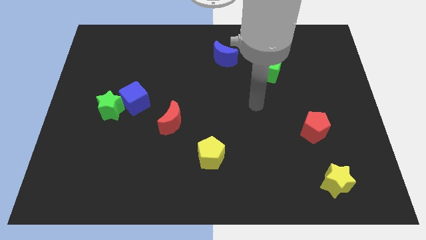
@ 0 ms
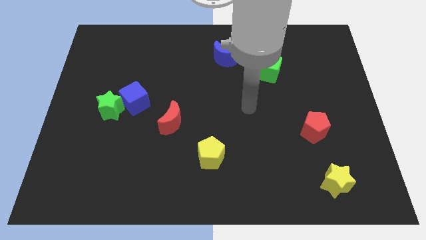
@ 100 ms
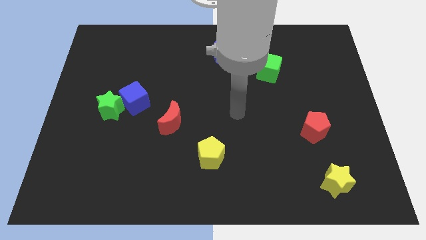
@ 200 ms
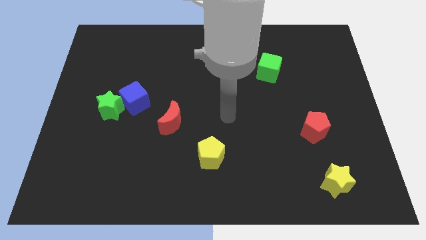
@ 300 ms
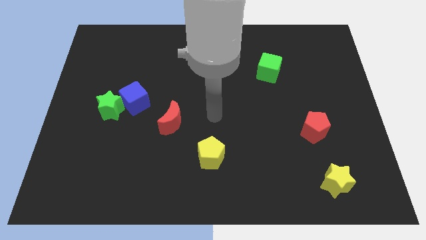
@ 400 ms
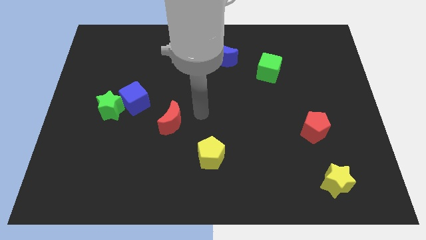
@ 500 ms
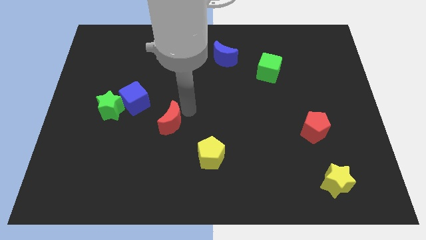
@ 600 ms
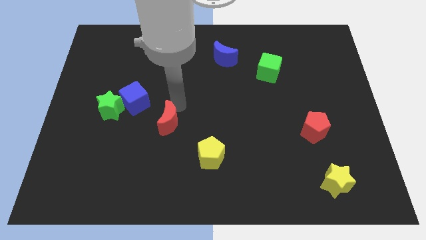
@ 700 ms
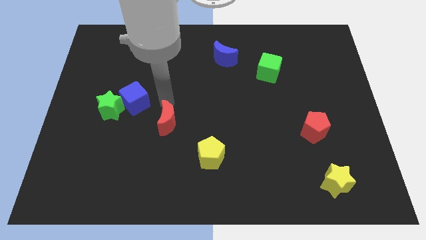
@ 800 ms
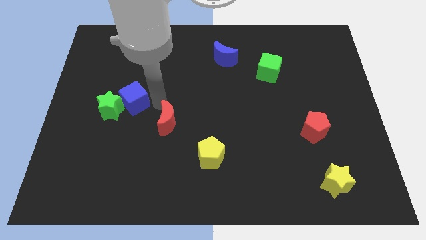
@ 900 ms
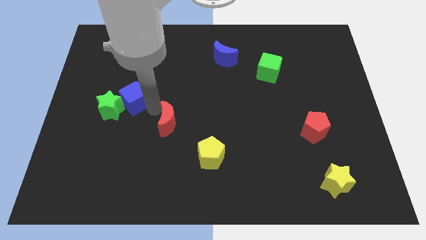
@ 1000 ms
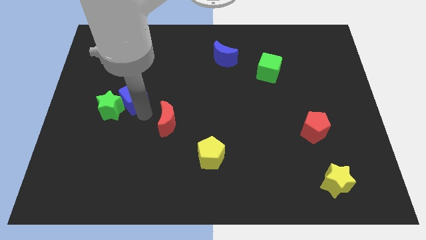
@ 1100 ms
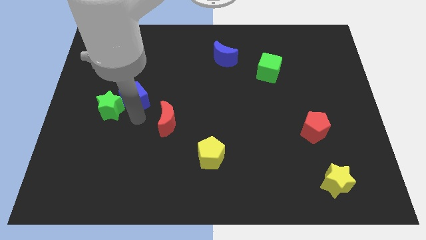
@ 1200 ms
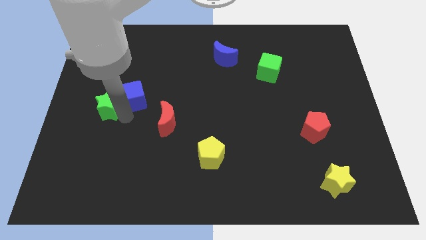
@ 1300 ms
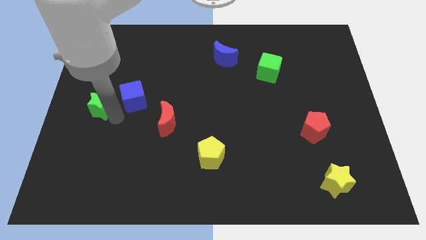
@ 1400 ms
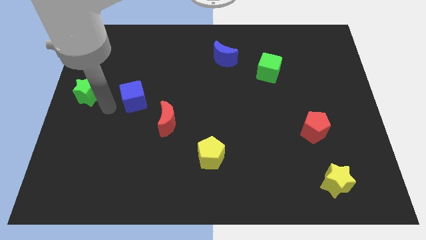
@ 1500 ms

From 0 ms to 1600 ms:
pull the blue cube apart from the green star

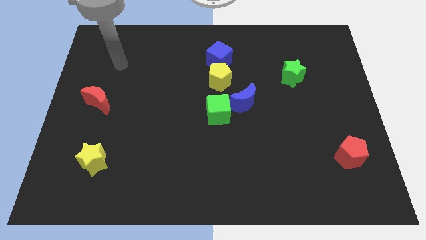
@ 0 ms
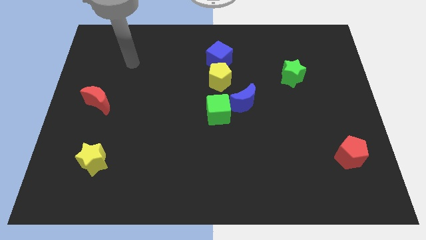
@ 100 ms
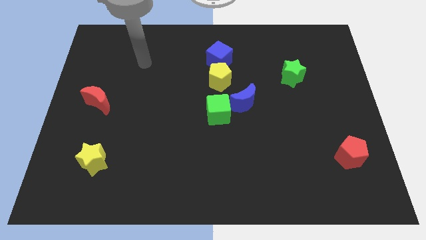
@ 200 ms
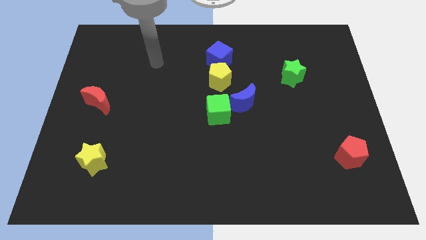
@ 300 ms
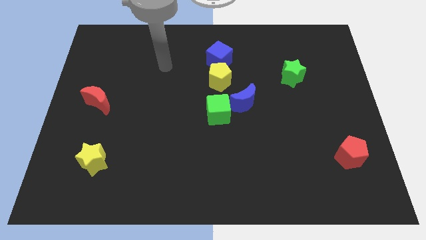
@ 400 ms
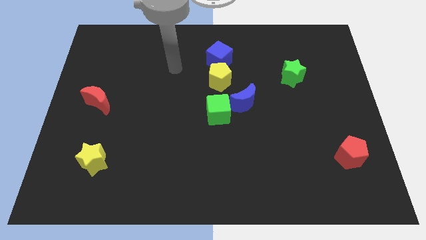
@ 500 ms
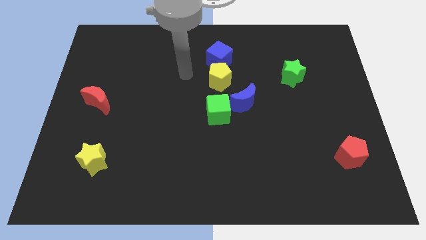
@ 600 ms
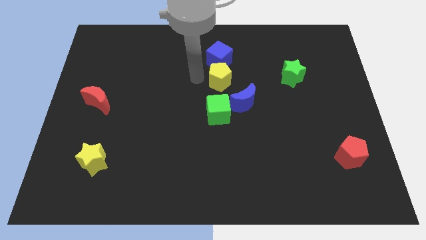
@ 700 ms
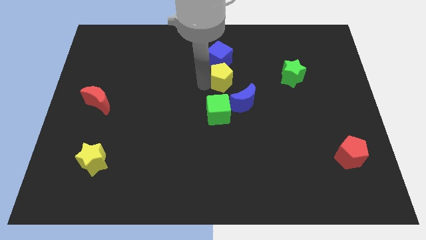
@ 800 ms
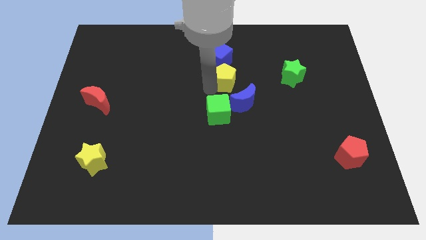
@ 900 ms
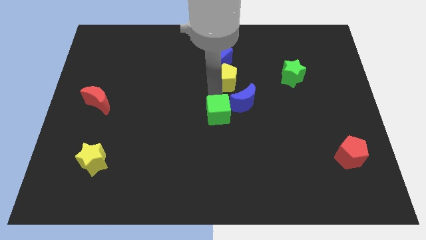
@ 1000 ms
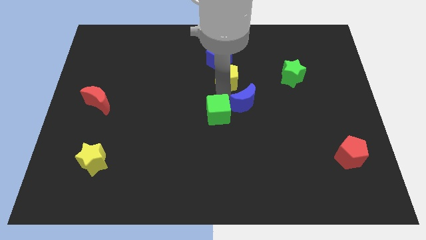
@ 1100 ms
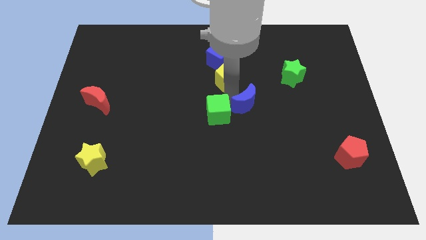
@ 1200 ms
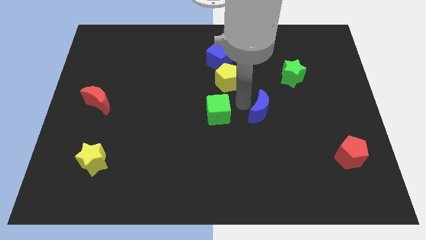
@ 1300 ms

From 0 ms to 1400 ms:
separate the green cube from the blue moon

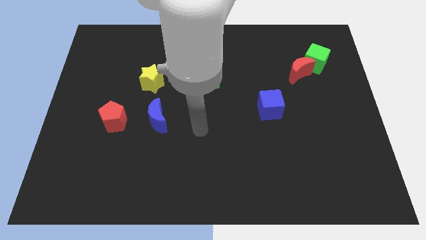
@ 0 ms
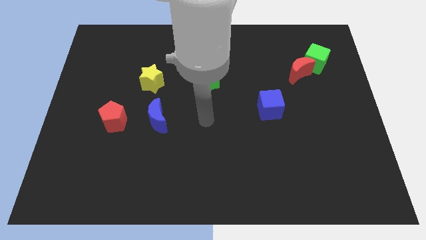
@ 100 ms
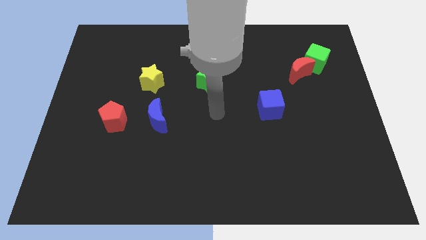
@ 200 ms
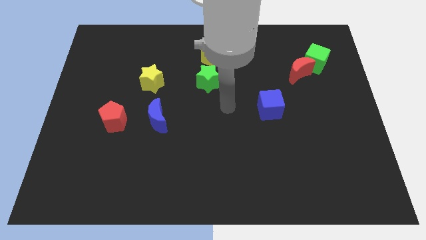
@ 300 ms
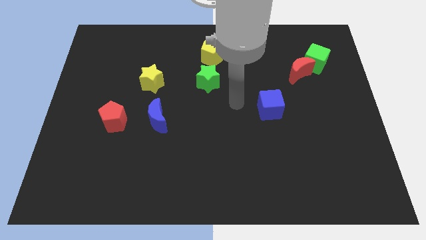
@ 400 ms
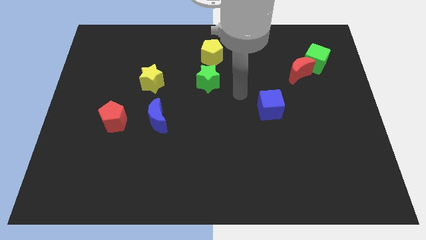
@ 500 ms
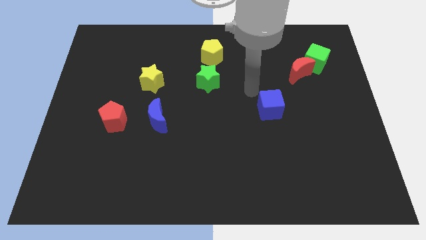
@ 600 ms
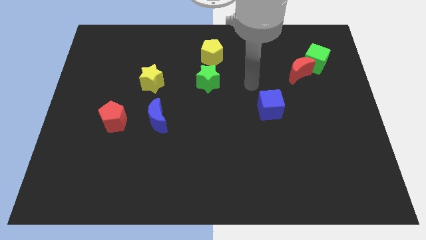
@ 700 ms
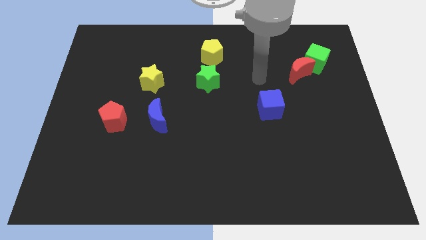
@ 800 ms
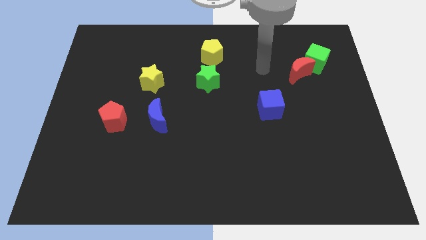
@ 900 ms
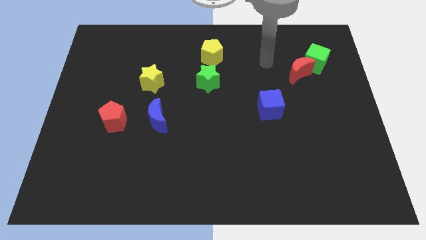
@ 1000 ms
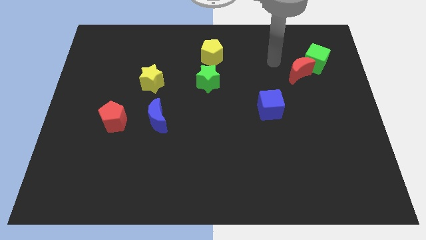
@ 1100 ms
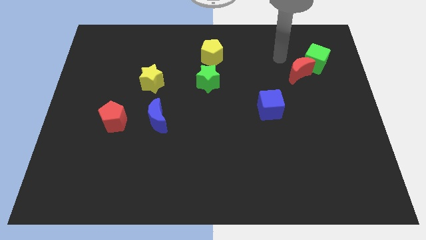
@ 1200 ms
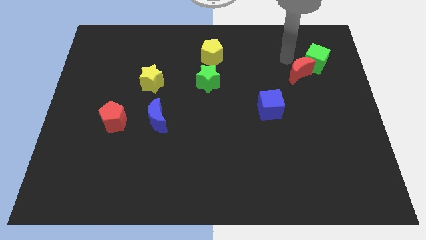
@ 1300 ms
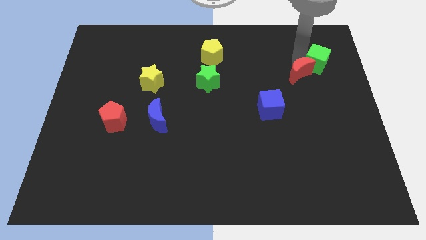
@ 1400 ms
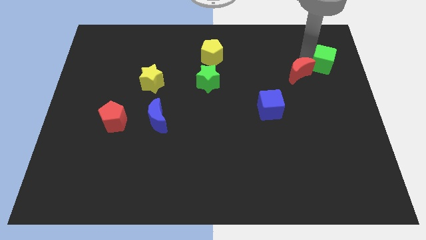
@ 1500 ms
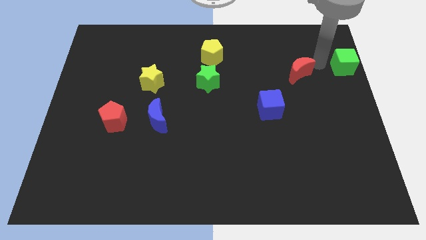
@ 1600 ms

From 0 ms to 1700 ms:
pull the red moon apart from the green cube

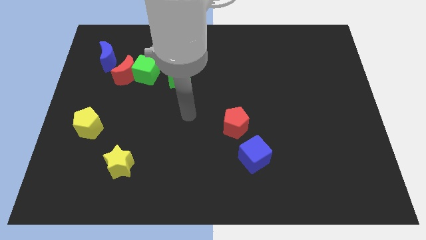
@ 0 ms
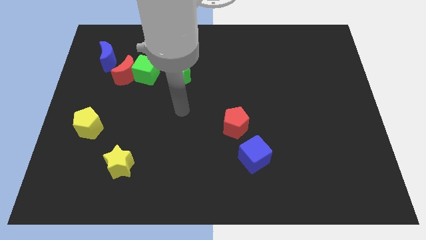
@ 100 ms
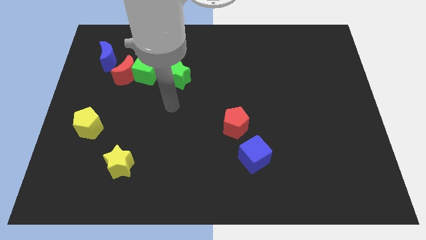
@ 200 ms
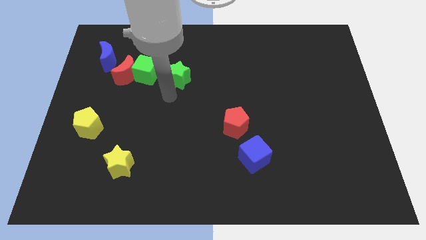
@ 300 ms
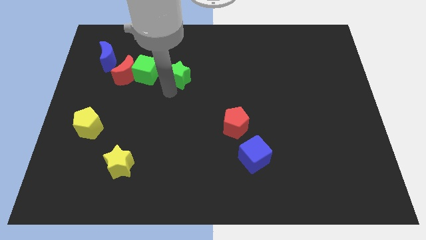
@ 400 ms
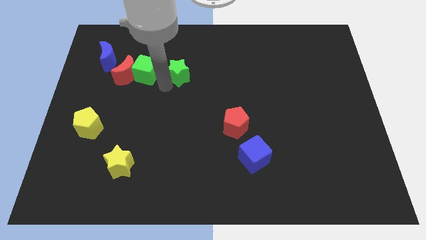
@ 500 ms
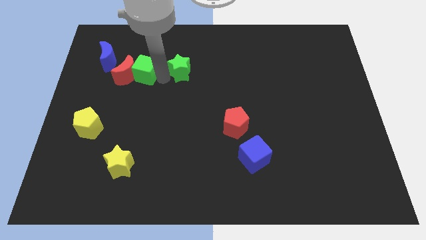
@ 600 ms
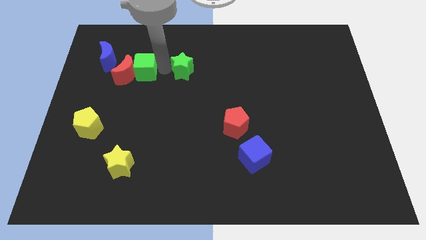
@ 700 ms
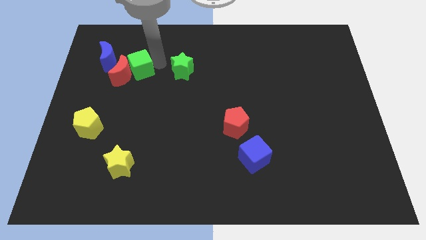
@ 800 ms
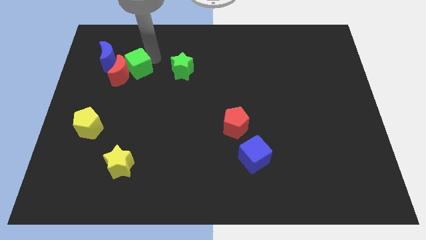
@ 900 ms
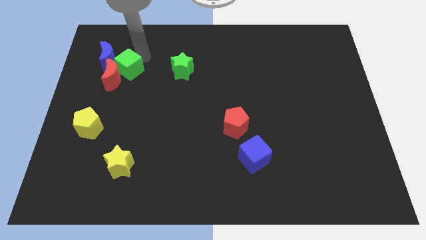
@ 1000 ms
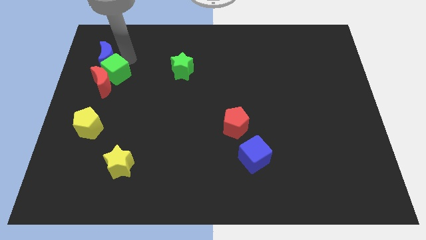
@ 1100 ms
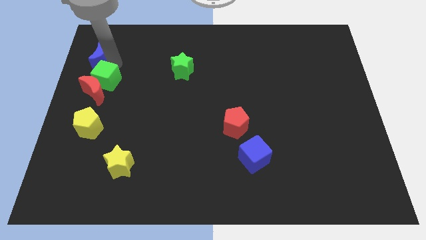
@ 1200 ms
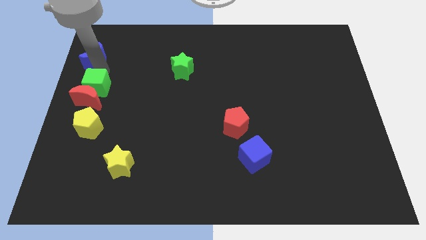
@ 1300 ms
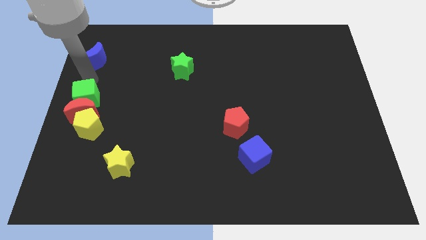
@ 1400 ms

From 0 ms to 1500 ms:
separate the red moon from the green cube and blue moon

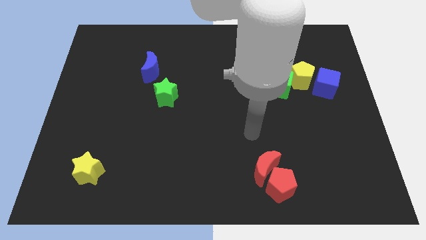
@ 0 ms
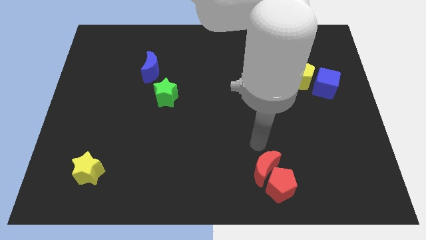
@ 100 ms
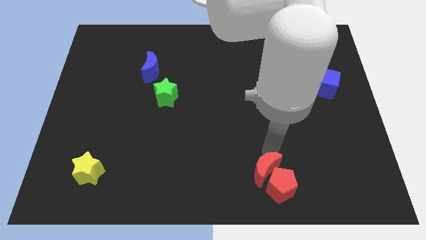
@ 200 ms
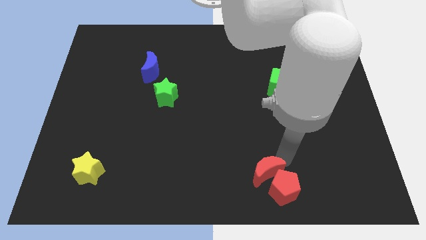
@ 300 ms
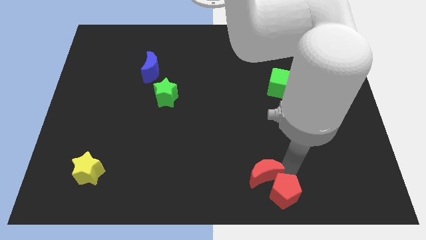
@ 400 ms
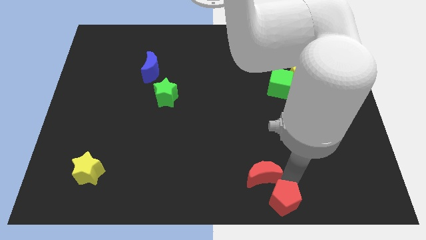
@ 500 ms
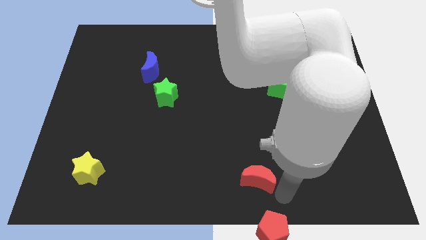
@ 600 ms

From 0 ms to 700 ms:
separate the red moon from the red pentagon

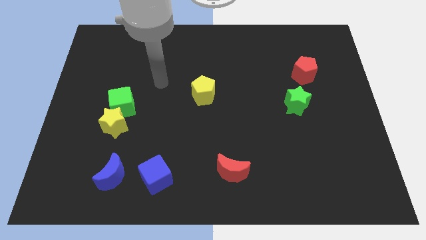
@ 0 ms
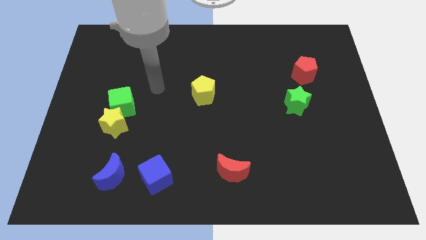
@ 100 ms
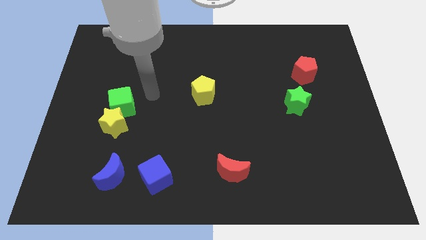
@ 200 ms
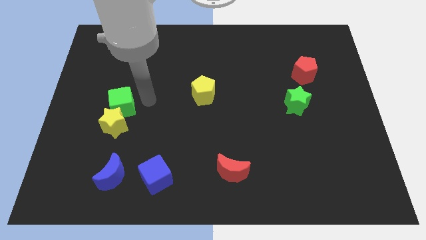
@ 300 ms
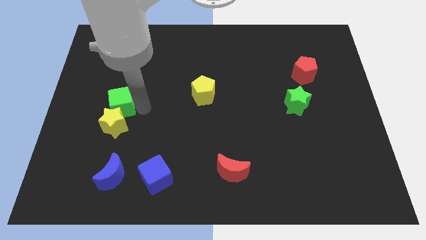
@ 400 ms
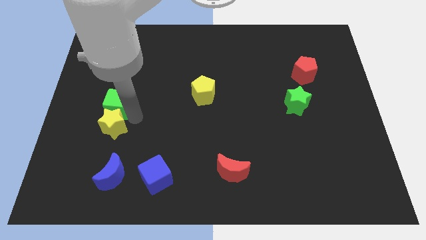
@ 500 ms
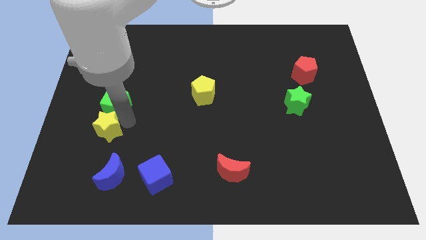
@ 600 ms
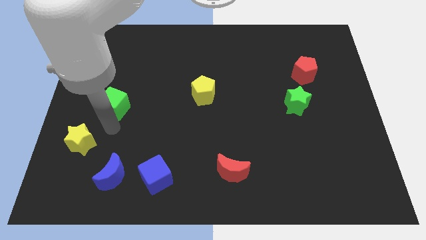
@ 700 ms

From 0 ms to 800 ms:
move the green cube away from the yellow star

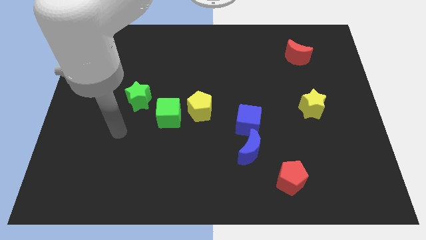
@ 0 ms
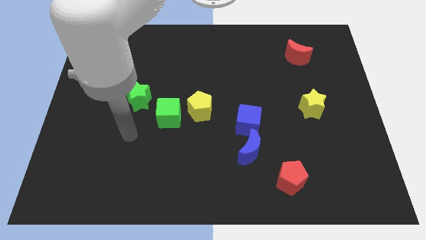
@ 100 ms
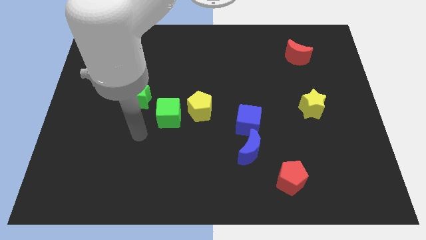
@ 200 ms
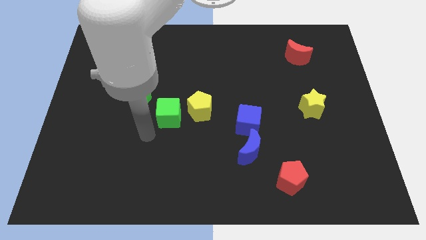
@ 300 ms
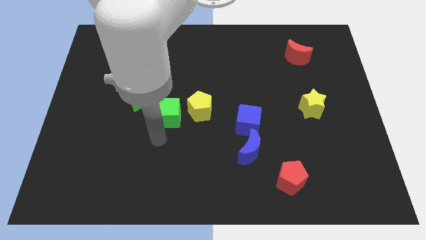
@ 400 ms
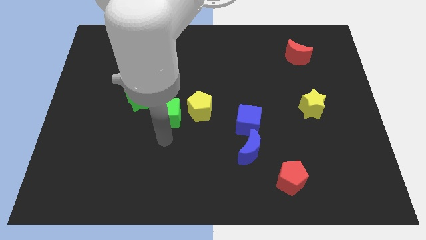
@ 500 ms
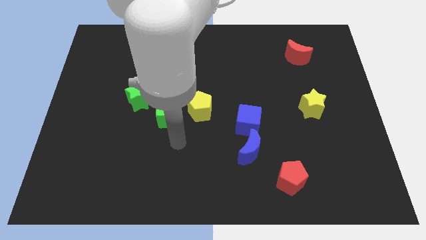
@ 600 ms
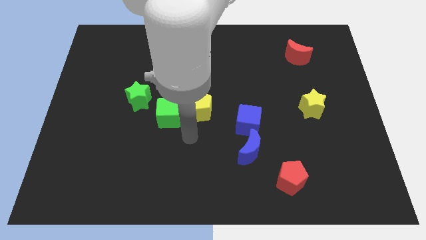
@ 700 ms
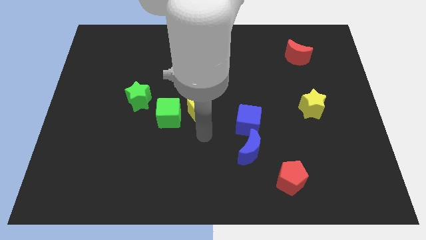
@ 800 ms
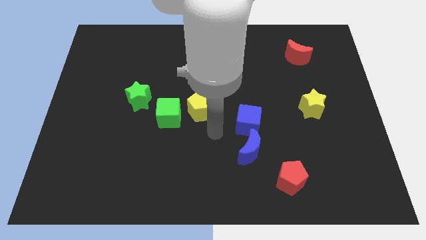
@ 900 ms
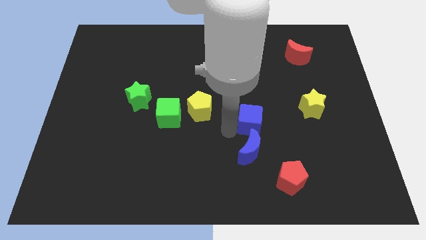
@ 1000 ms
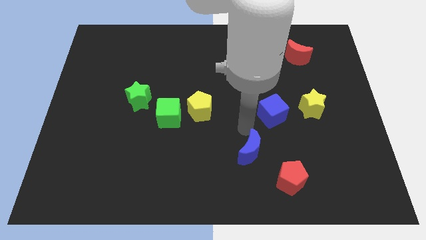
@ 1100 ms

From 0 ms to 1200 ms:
separate the blue moon from the blue cube

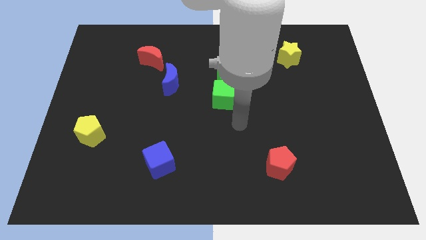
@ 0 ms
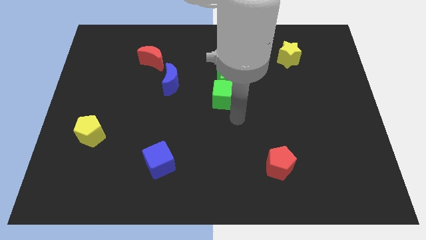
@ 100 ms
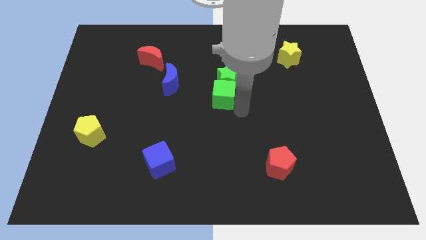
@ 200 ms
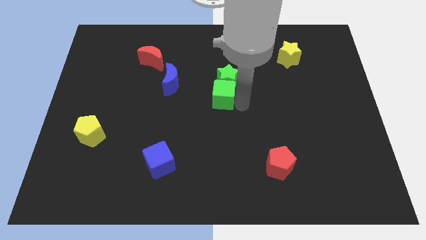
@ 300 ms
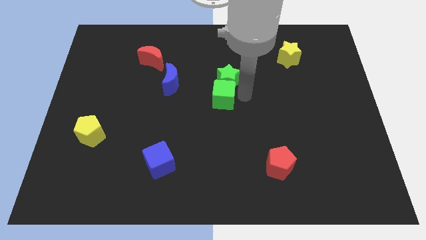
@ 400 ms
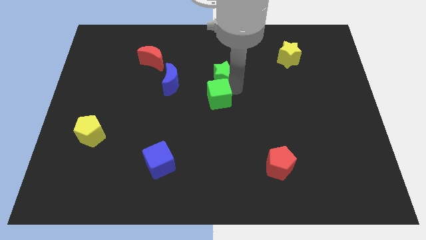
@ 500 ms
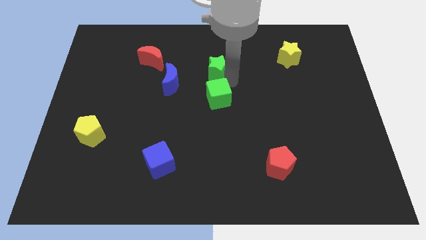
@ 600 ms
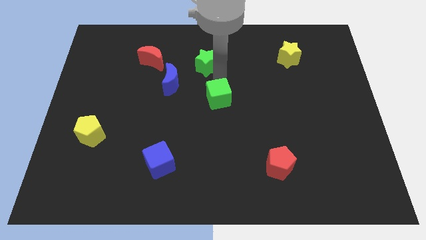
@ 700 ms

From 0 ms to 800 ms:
move the green cube away from the green star
